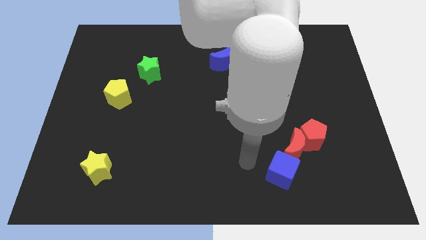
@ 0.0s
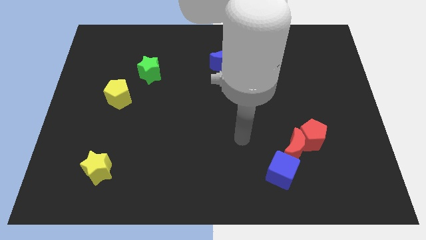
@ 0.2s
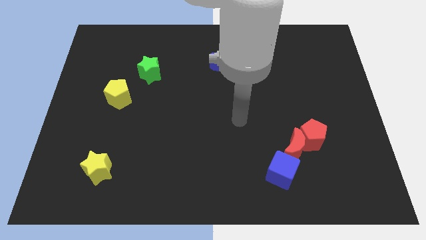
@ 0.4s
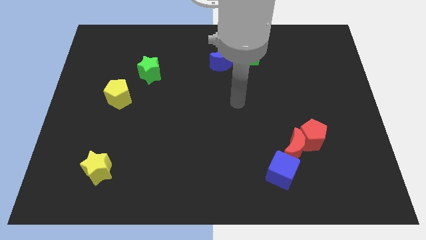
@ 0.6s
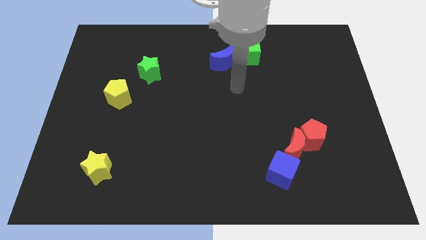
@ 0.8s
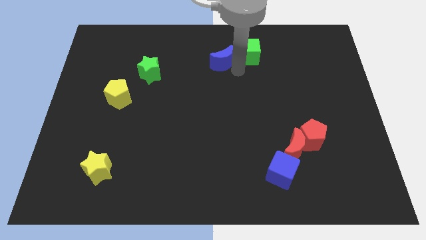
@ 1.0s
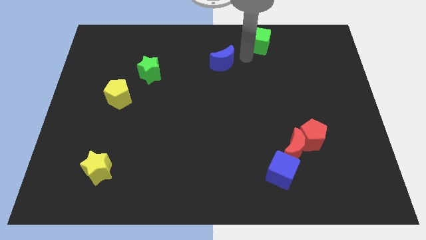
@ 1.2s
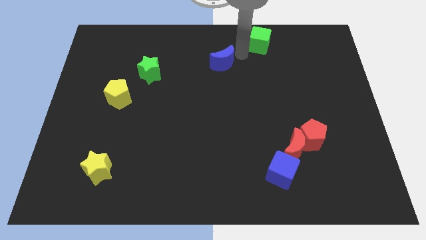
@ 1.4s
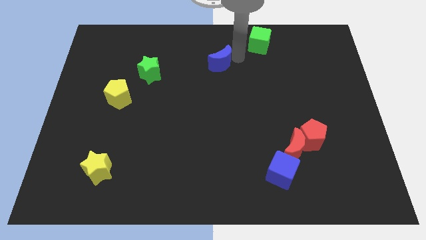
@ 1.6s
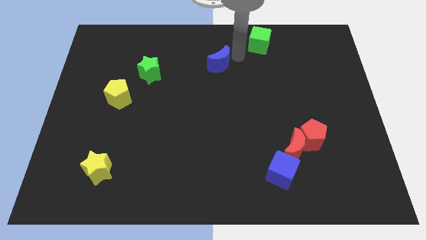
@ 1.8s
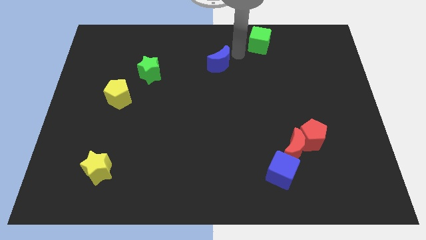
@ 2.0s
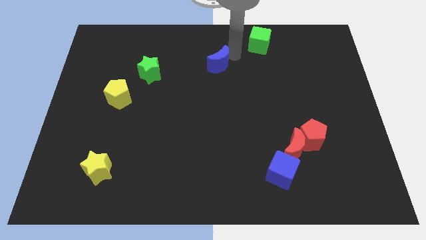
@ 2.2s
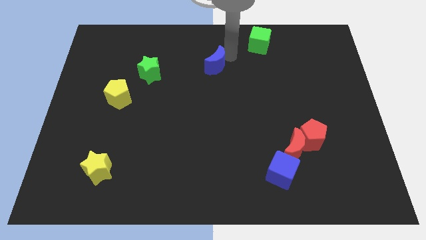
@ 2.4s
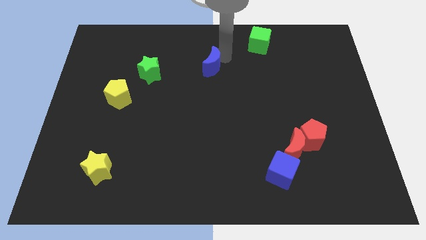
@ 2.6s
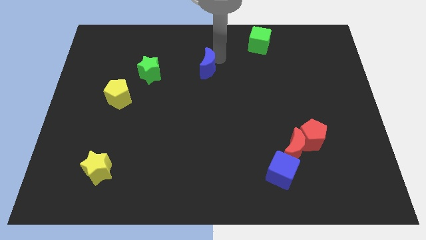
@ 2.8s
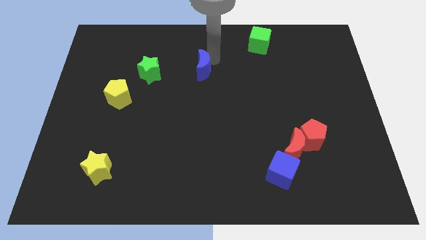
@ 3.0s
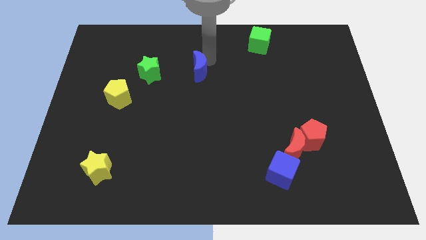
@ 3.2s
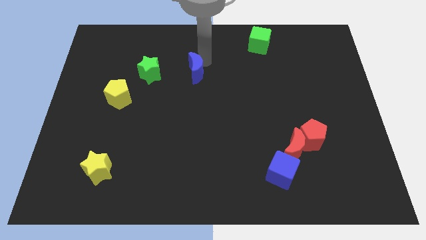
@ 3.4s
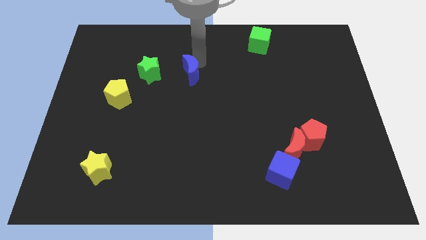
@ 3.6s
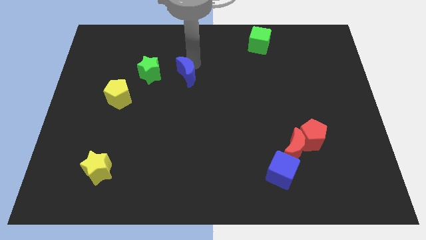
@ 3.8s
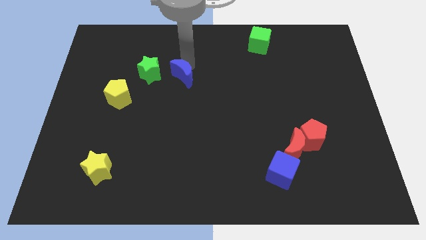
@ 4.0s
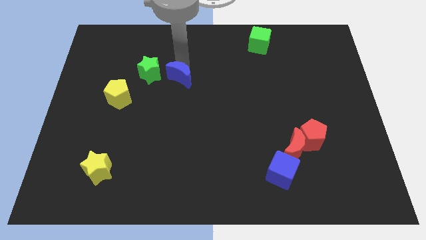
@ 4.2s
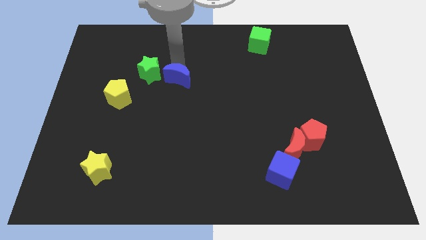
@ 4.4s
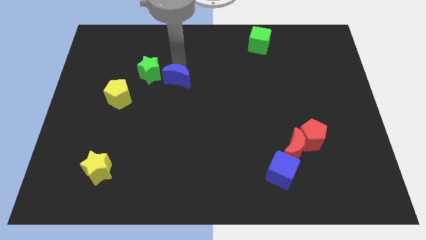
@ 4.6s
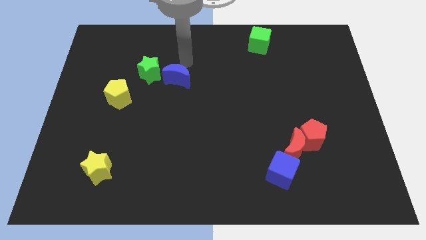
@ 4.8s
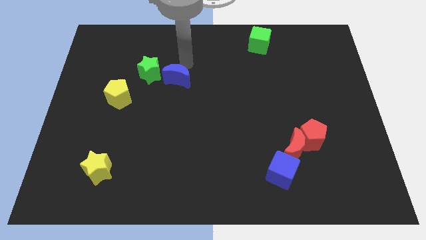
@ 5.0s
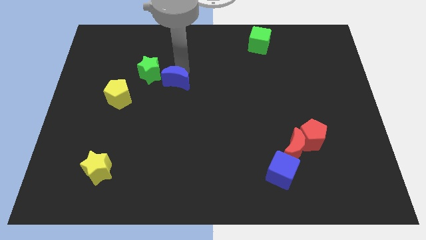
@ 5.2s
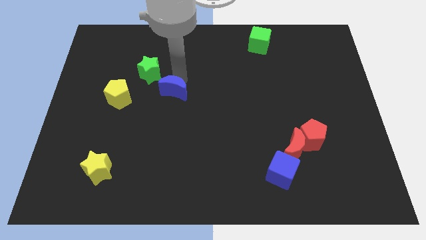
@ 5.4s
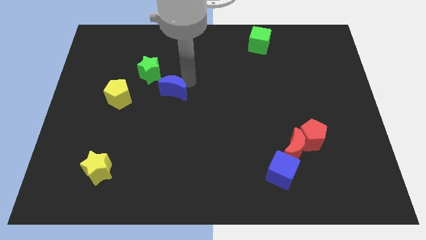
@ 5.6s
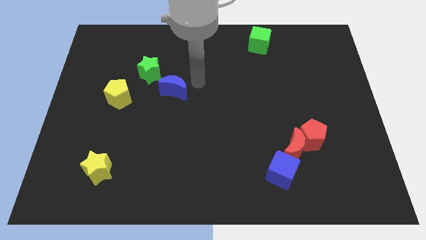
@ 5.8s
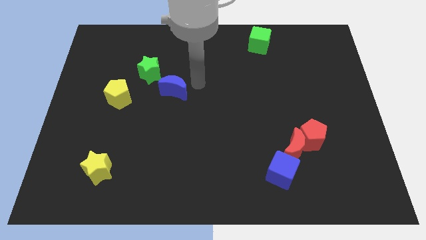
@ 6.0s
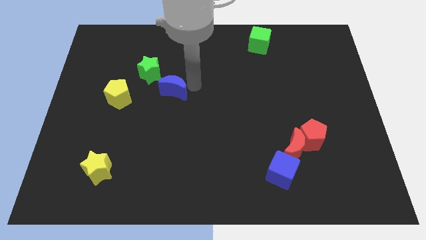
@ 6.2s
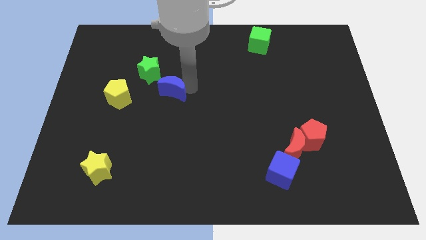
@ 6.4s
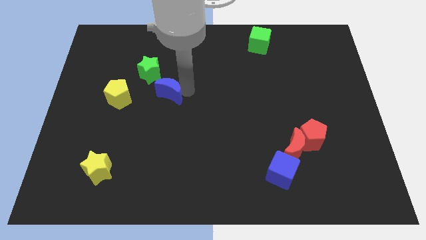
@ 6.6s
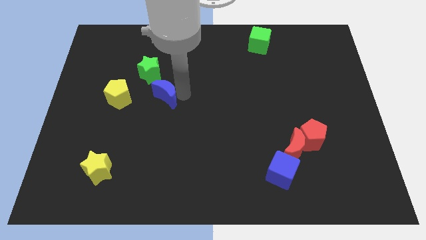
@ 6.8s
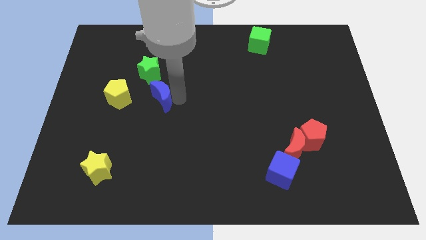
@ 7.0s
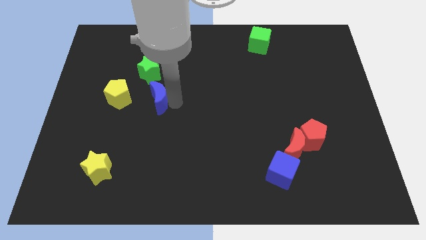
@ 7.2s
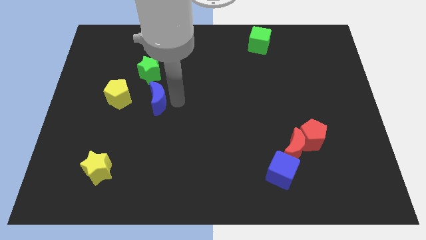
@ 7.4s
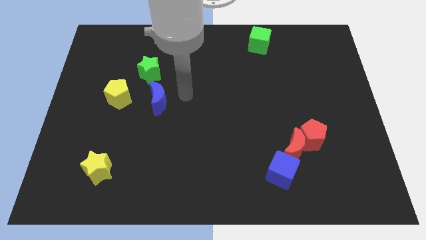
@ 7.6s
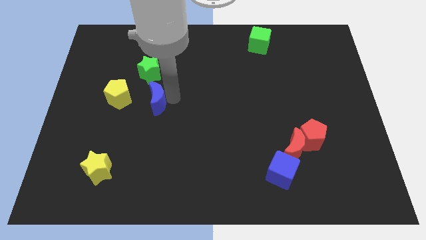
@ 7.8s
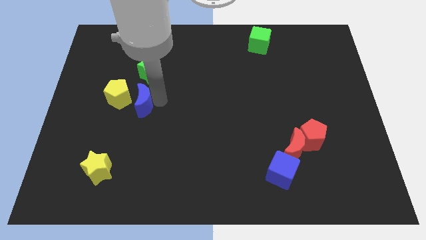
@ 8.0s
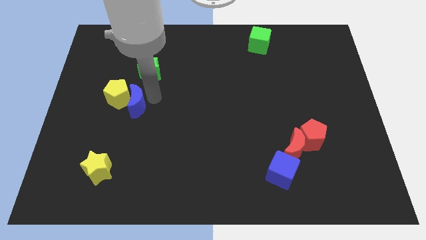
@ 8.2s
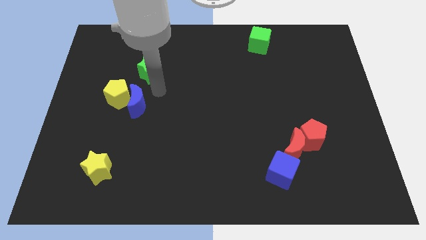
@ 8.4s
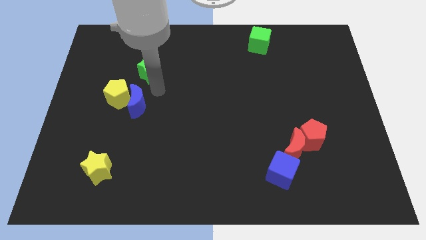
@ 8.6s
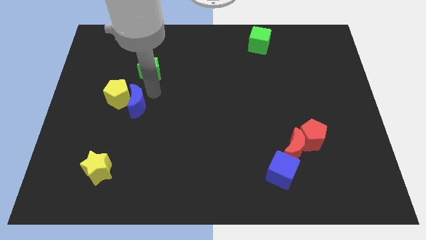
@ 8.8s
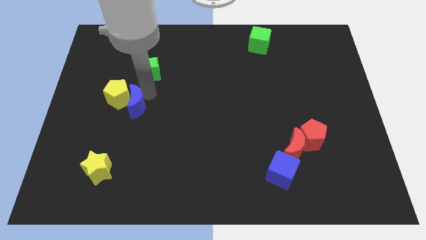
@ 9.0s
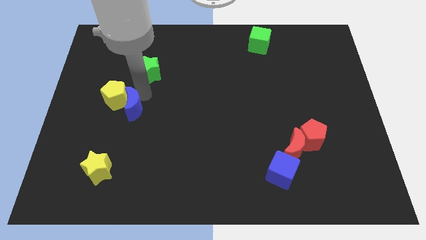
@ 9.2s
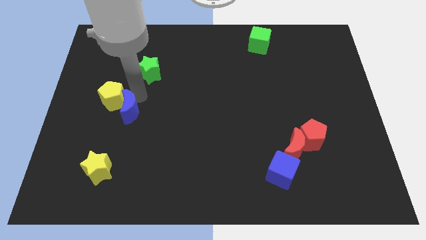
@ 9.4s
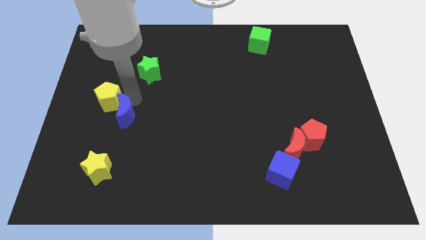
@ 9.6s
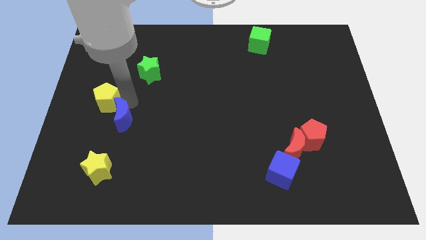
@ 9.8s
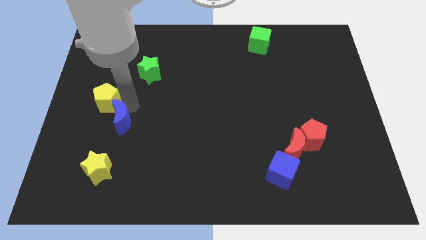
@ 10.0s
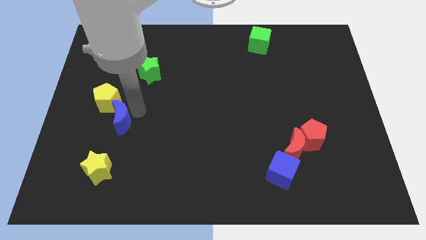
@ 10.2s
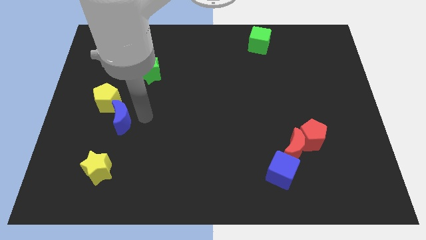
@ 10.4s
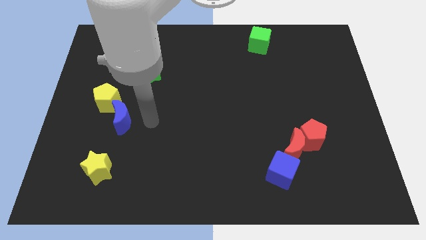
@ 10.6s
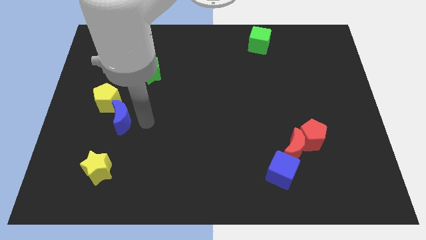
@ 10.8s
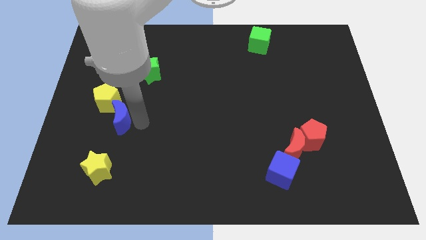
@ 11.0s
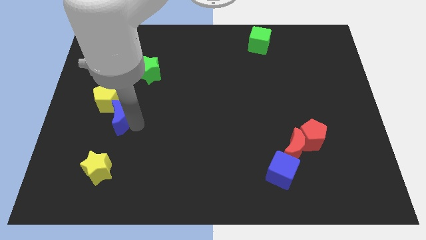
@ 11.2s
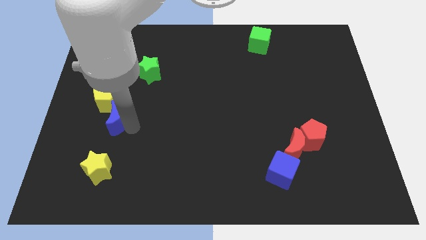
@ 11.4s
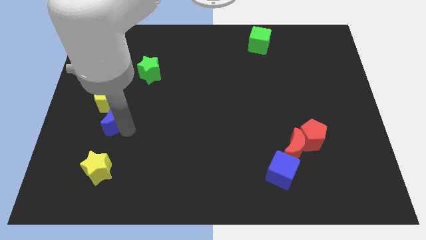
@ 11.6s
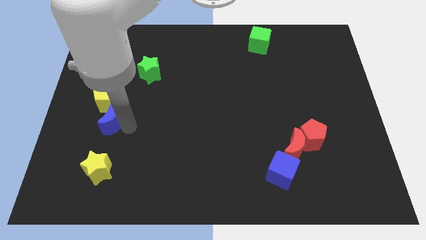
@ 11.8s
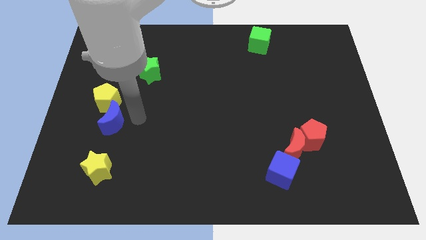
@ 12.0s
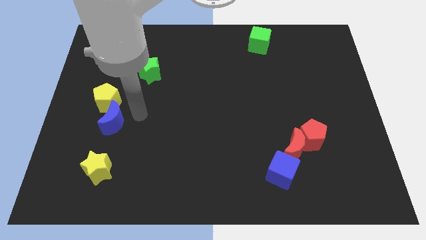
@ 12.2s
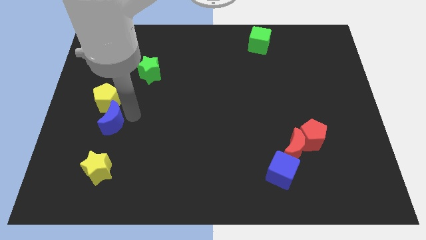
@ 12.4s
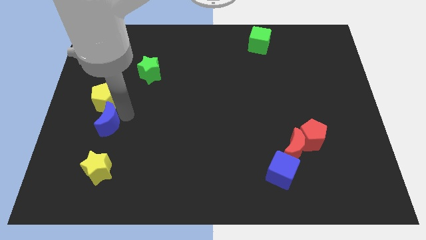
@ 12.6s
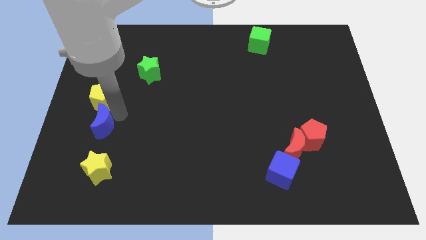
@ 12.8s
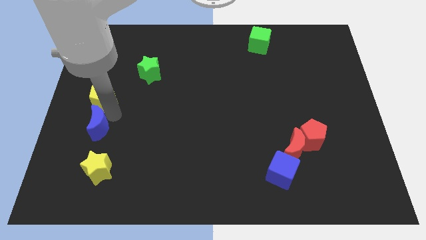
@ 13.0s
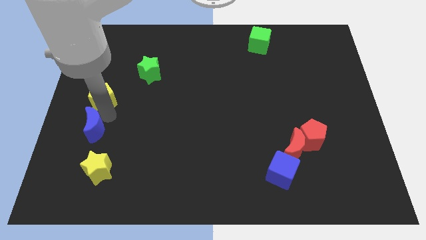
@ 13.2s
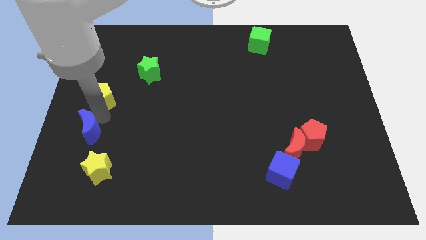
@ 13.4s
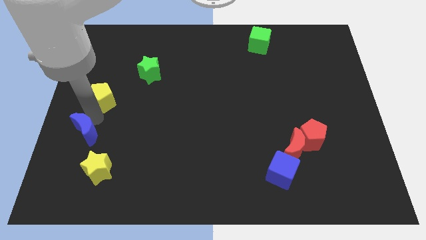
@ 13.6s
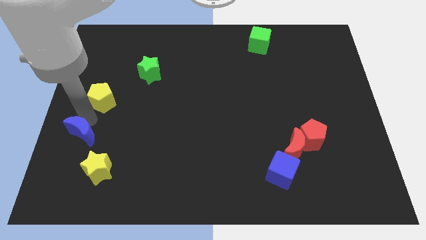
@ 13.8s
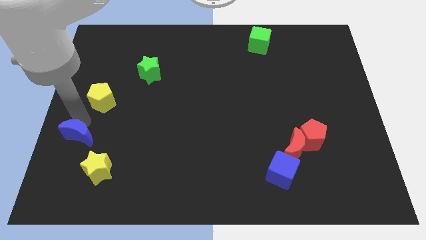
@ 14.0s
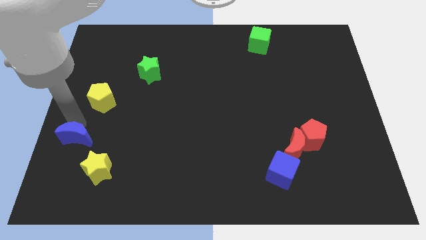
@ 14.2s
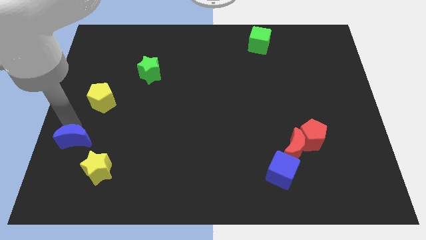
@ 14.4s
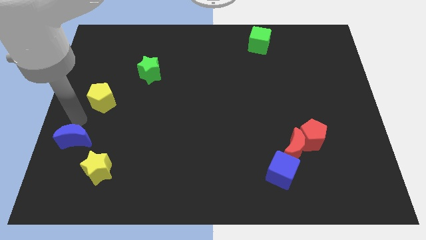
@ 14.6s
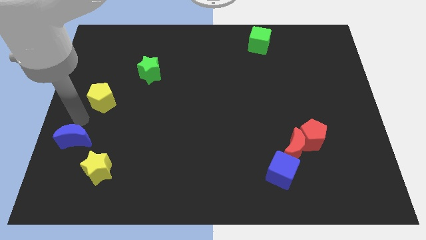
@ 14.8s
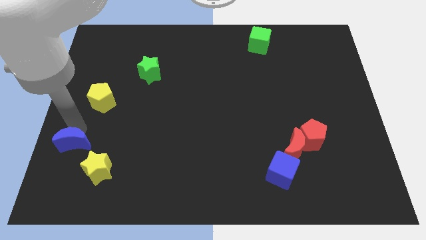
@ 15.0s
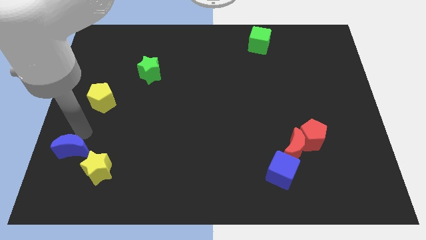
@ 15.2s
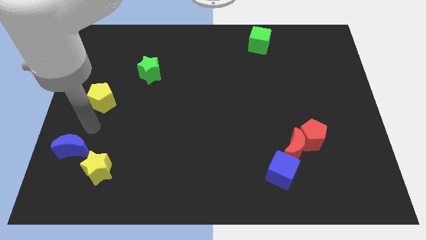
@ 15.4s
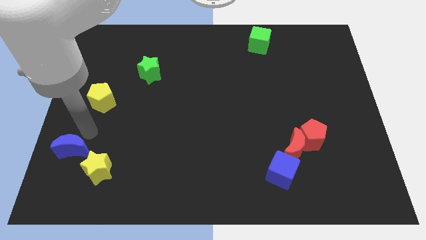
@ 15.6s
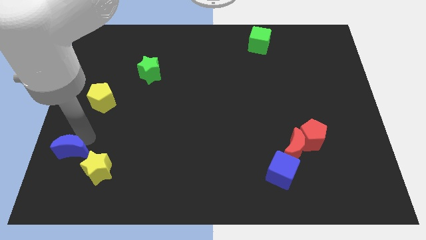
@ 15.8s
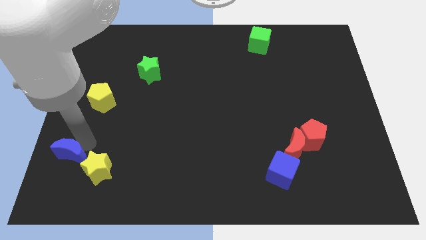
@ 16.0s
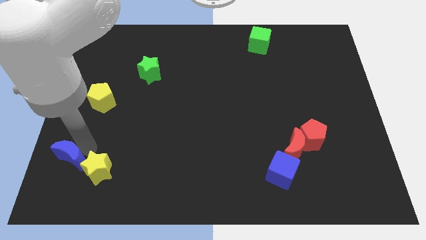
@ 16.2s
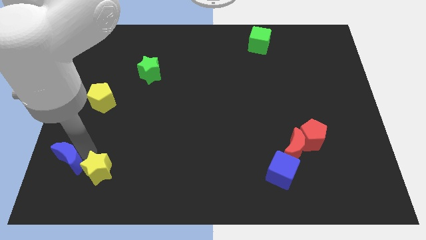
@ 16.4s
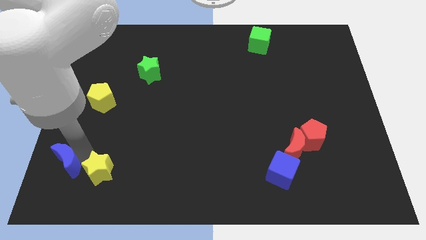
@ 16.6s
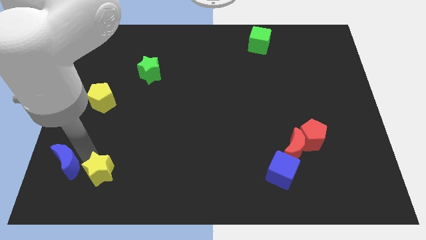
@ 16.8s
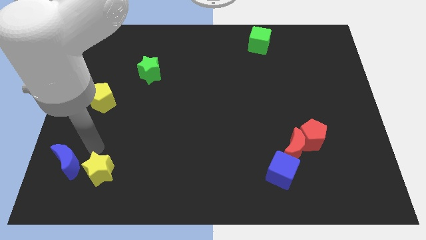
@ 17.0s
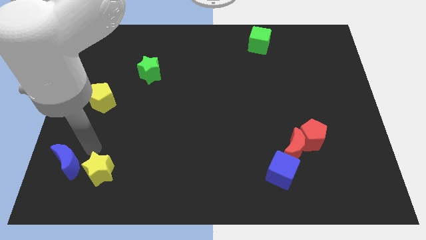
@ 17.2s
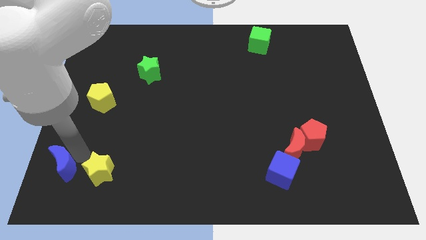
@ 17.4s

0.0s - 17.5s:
slide the blue moon to the bottom left corner
